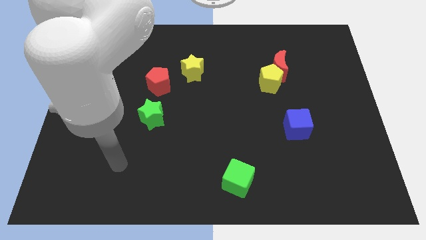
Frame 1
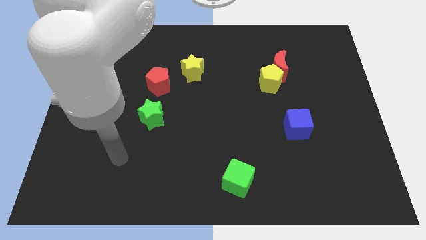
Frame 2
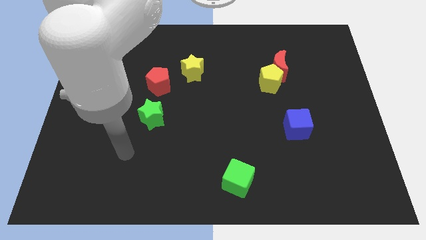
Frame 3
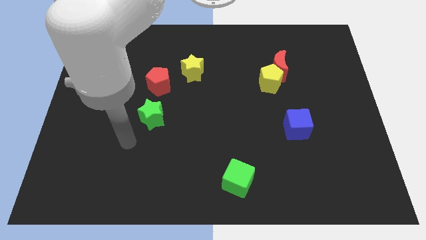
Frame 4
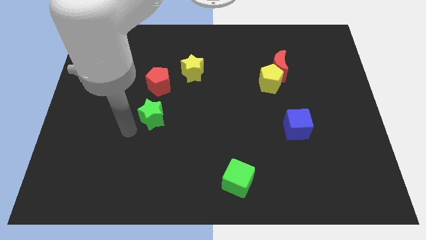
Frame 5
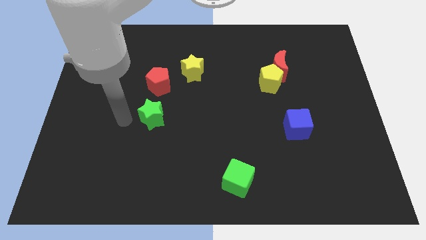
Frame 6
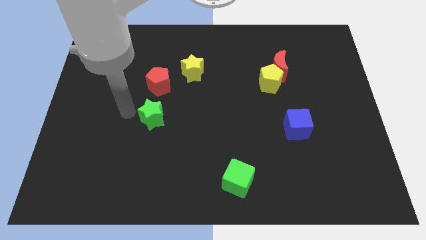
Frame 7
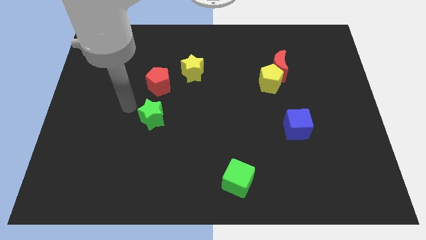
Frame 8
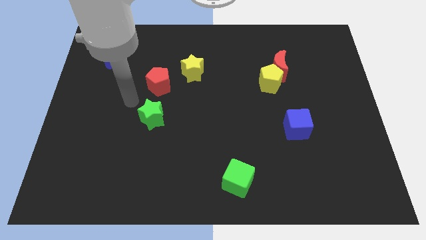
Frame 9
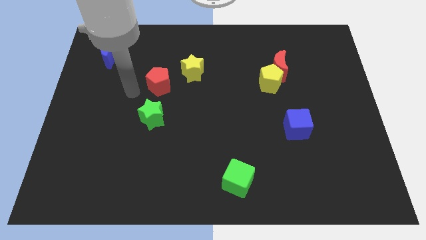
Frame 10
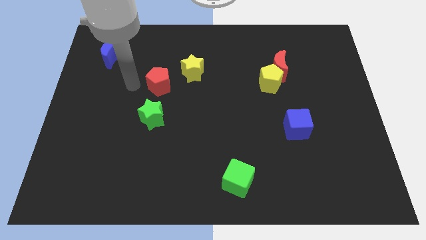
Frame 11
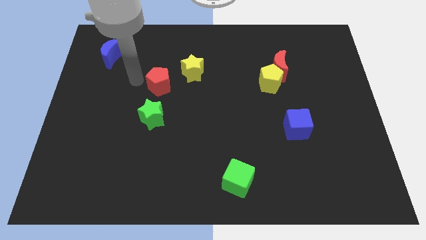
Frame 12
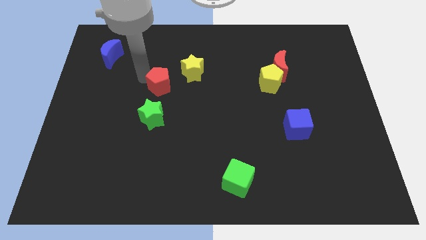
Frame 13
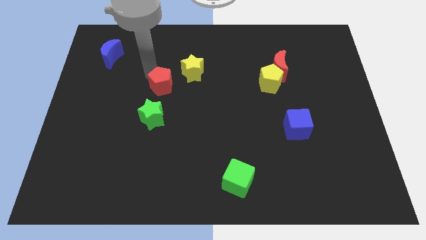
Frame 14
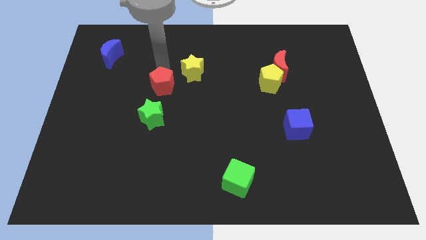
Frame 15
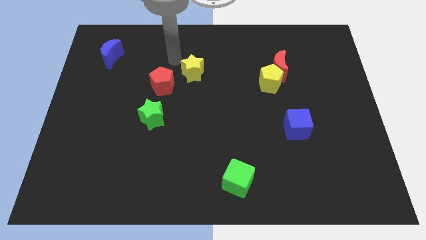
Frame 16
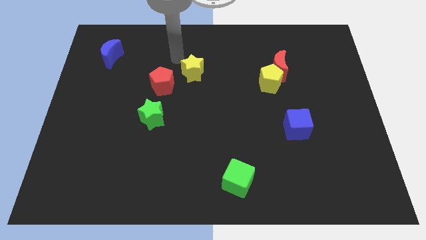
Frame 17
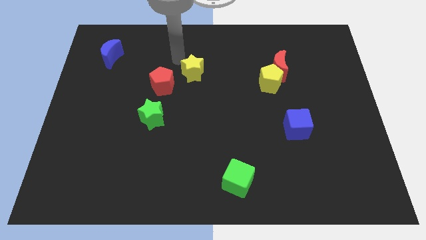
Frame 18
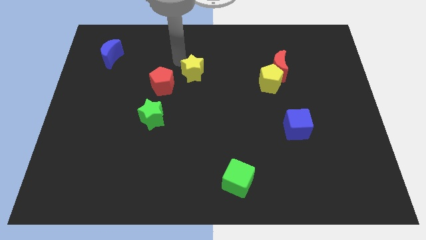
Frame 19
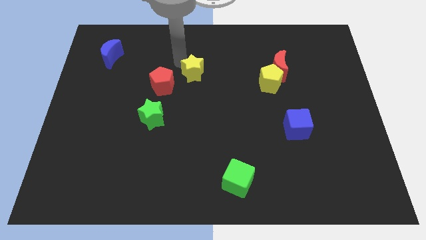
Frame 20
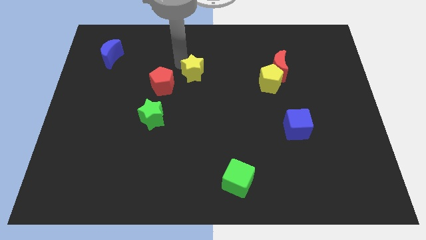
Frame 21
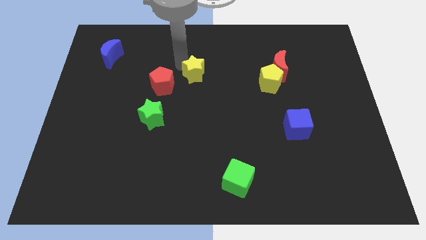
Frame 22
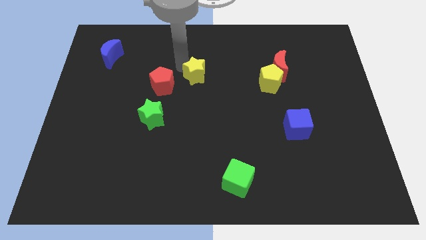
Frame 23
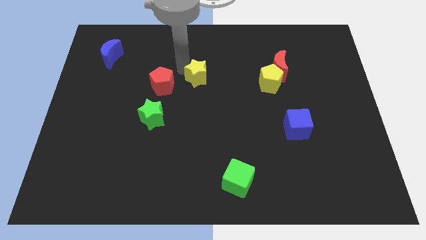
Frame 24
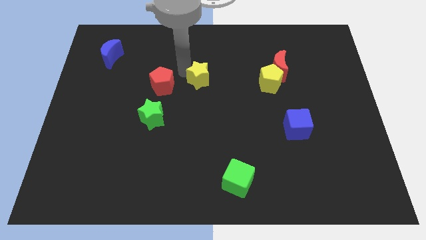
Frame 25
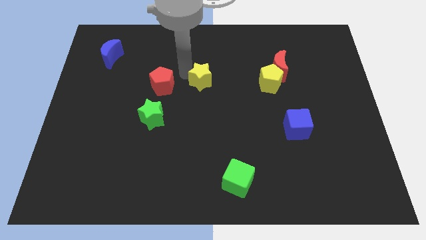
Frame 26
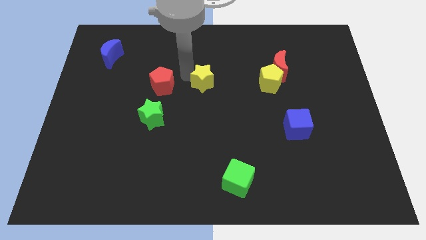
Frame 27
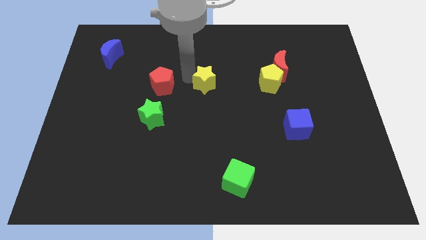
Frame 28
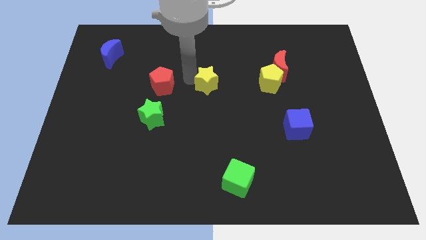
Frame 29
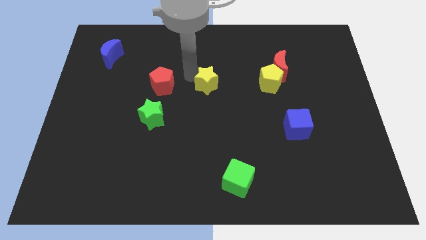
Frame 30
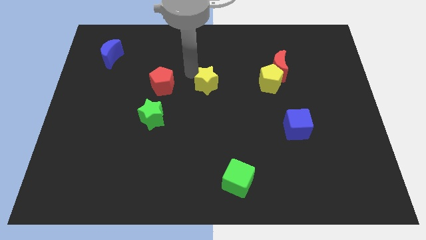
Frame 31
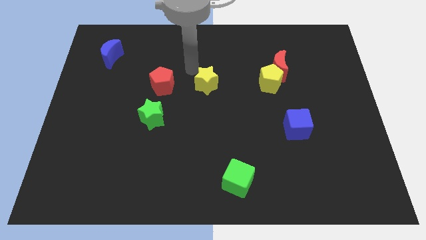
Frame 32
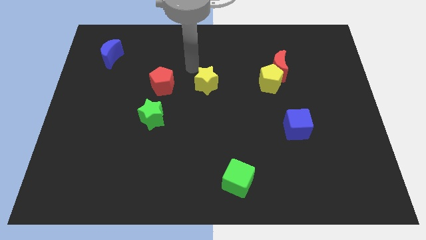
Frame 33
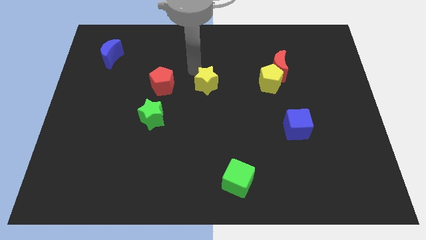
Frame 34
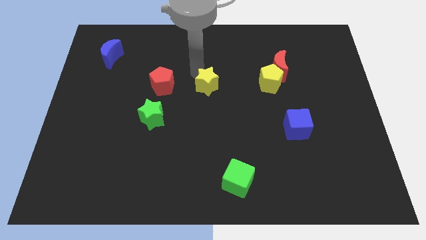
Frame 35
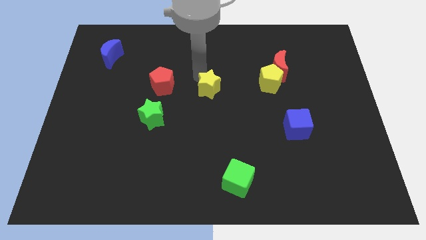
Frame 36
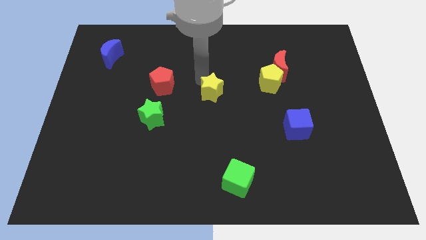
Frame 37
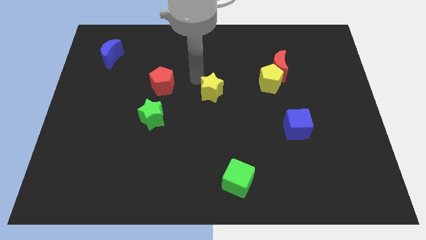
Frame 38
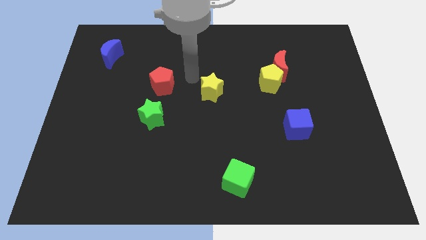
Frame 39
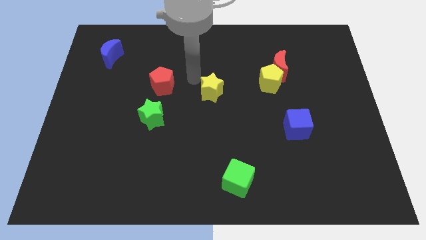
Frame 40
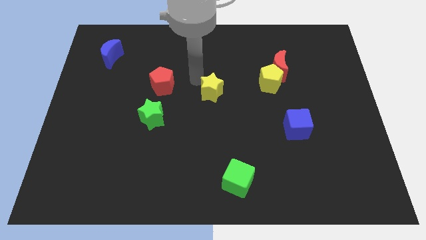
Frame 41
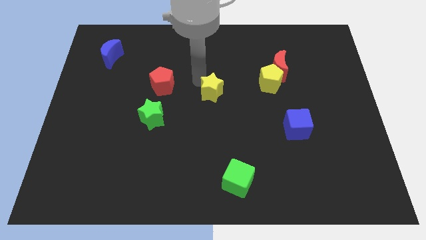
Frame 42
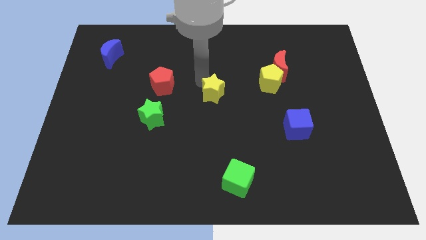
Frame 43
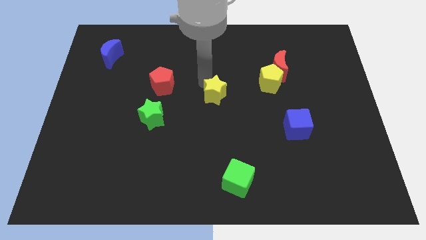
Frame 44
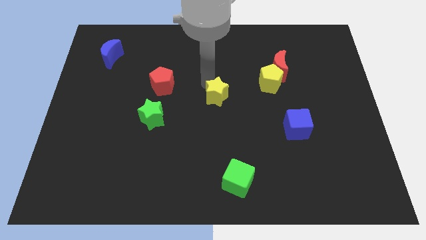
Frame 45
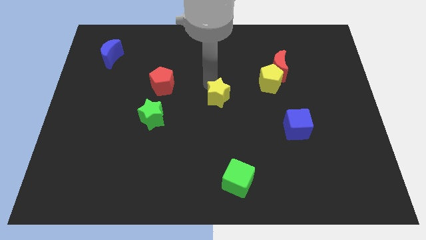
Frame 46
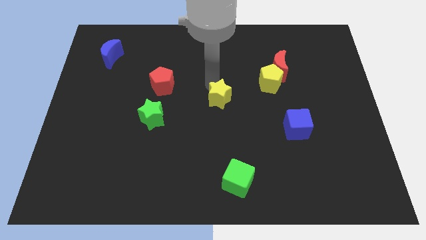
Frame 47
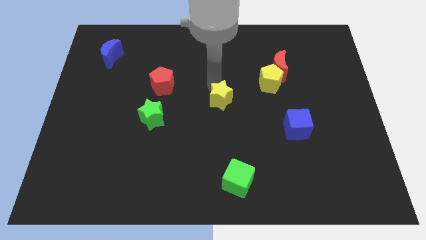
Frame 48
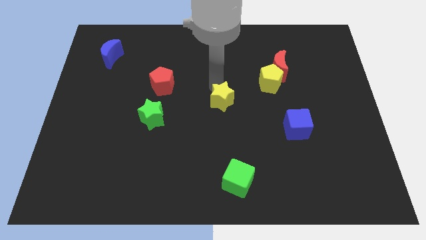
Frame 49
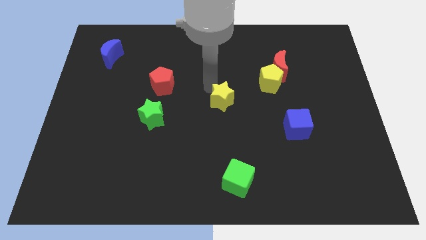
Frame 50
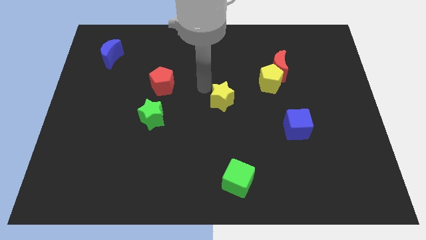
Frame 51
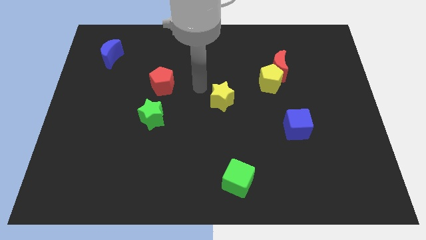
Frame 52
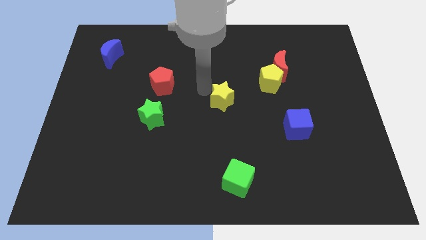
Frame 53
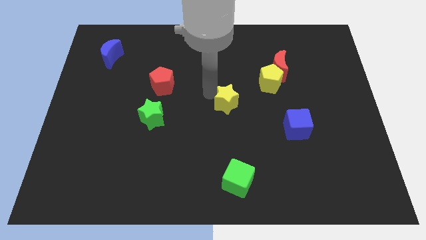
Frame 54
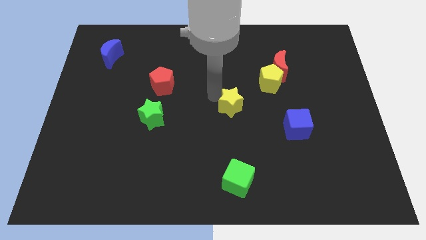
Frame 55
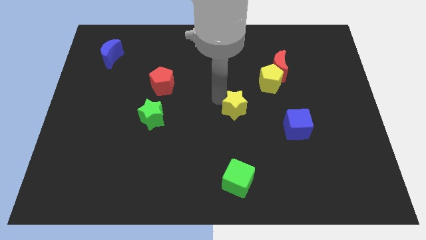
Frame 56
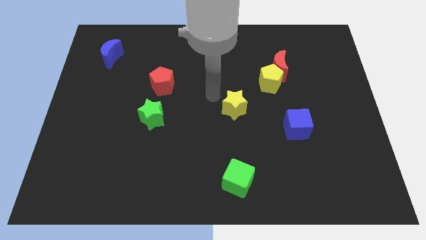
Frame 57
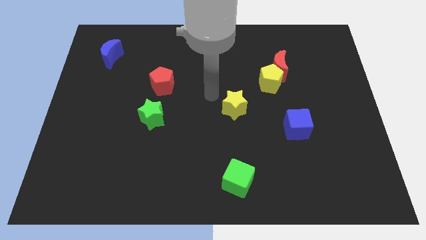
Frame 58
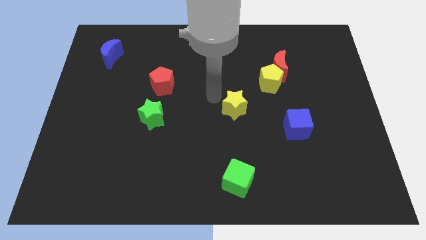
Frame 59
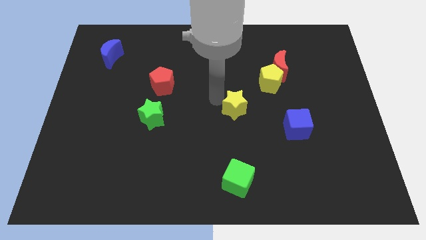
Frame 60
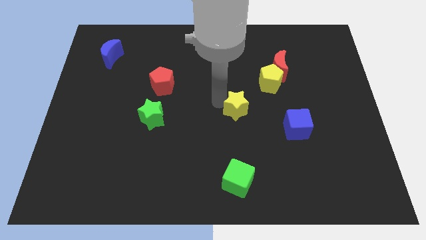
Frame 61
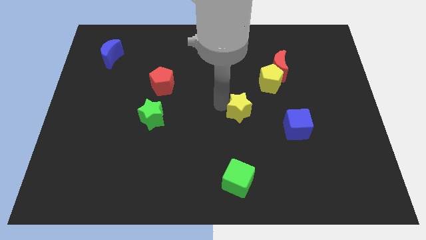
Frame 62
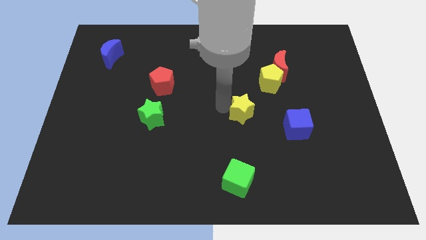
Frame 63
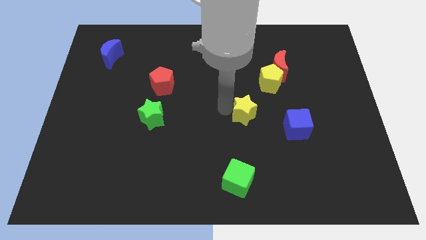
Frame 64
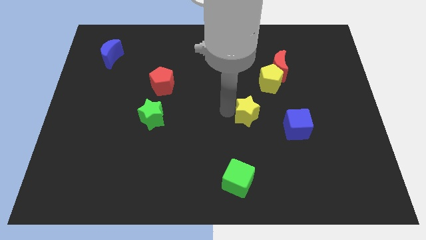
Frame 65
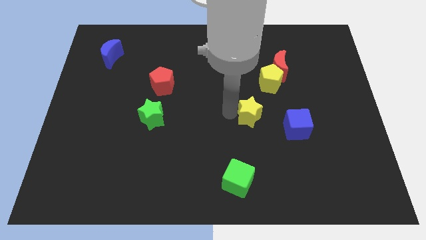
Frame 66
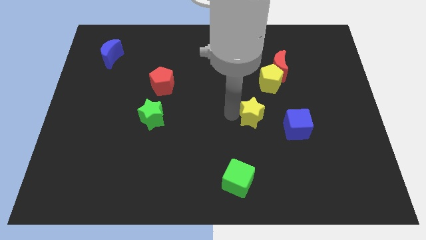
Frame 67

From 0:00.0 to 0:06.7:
move the yellow star downwards and then to the right

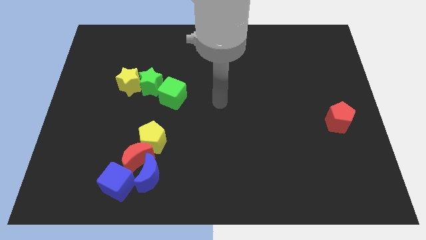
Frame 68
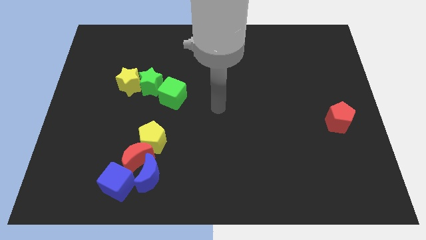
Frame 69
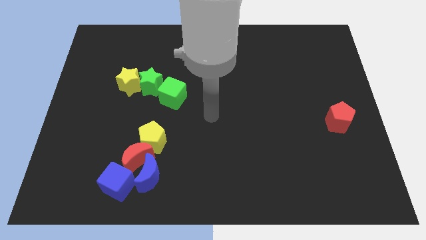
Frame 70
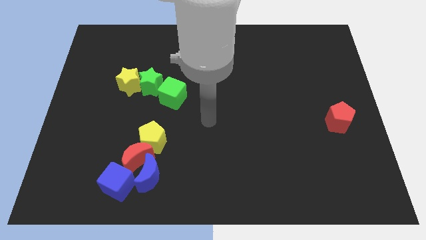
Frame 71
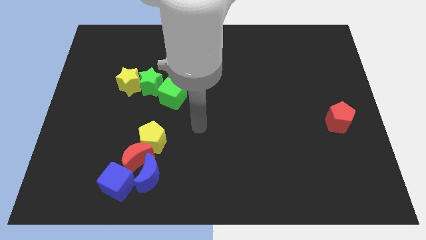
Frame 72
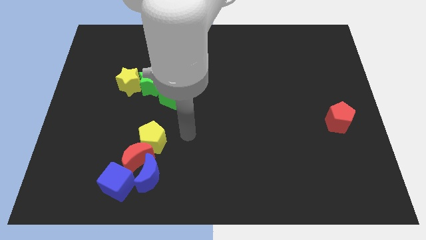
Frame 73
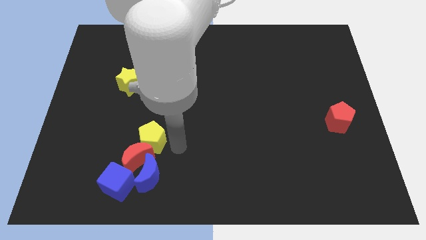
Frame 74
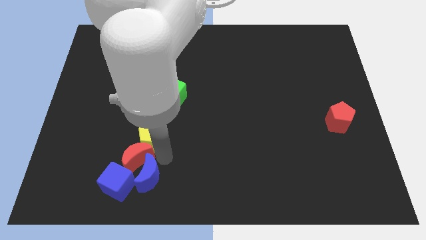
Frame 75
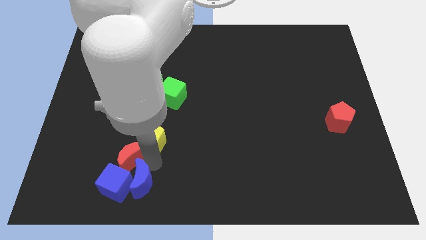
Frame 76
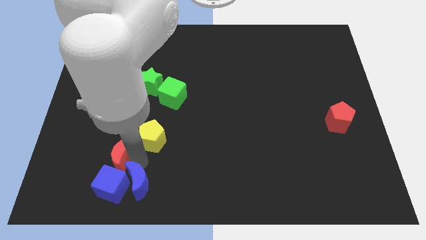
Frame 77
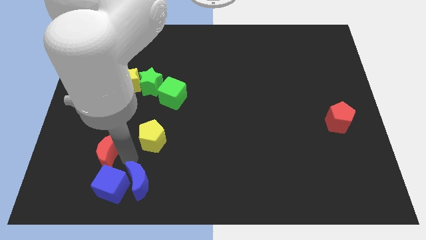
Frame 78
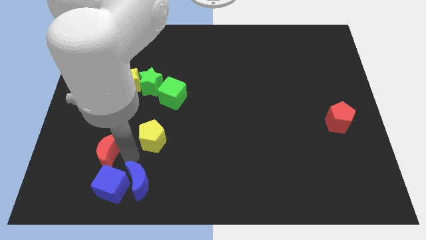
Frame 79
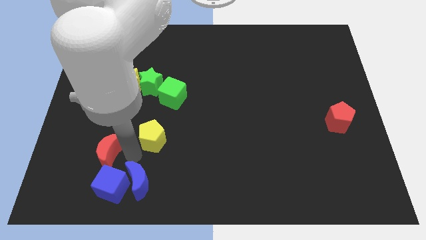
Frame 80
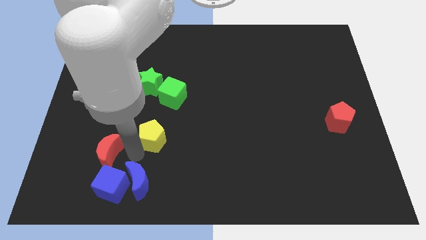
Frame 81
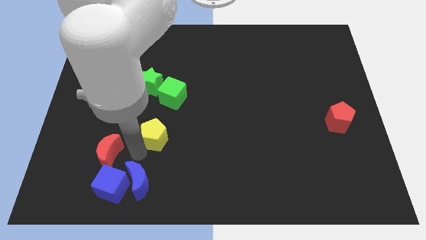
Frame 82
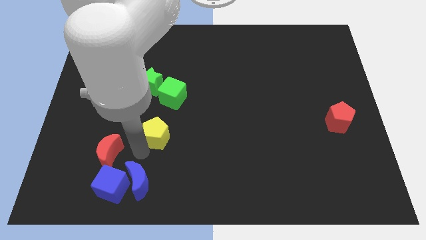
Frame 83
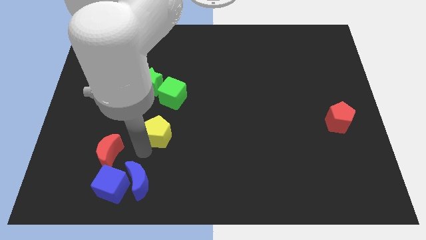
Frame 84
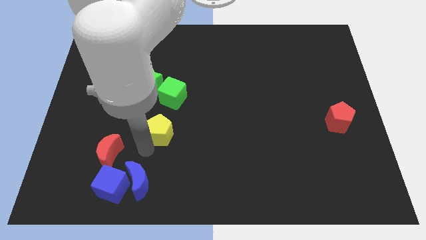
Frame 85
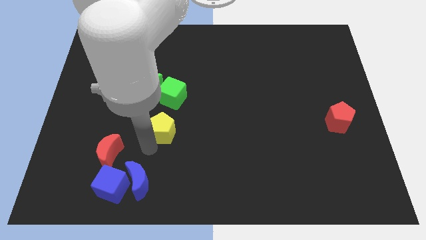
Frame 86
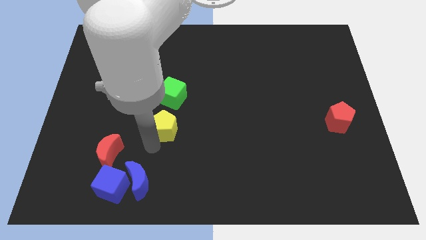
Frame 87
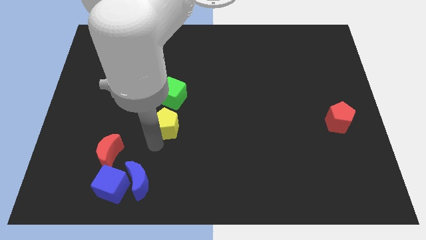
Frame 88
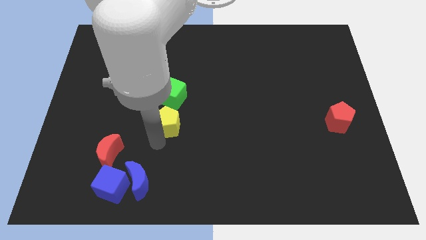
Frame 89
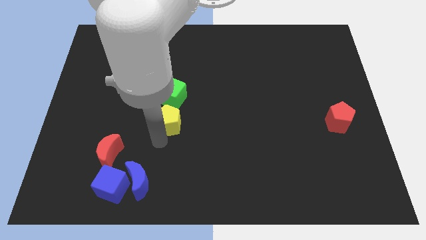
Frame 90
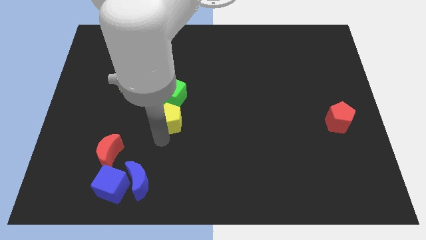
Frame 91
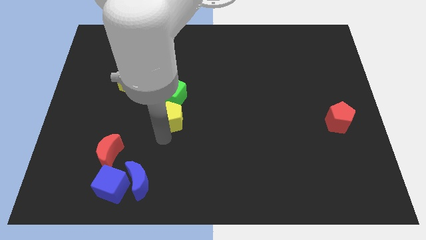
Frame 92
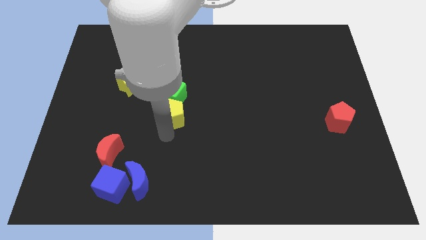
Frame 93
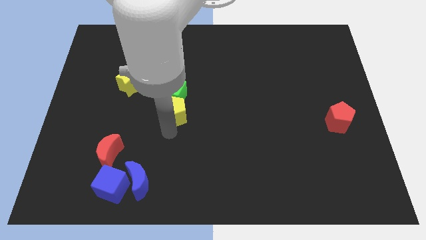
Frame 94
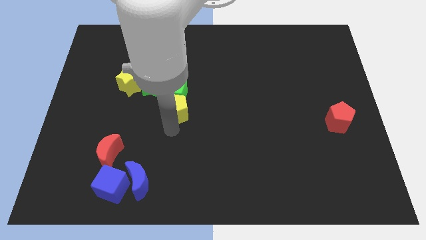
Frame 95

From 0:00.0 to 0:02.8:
push the yellow pentagon a bit up
